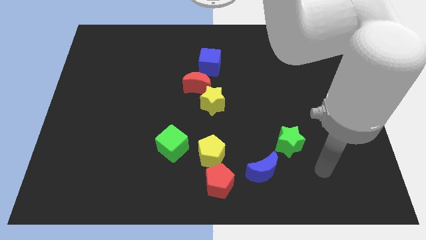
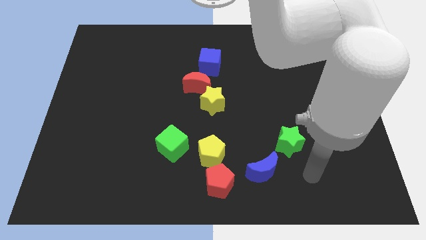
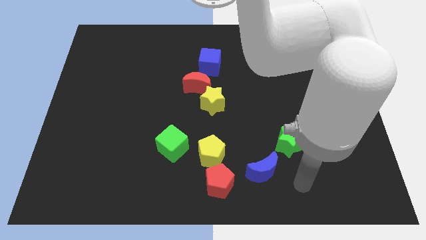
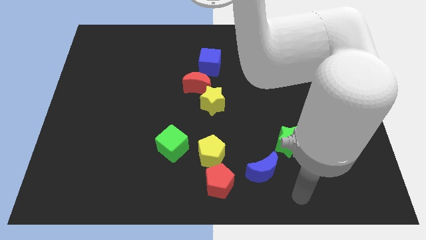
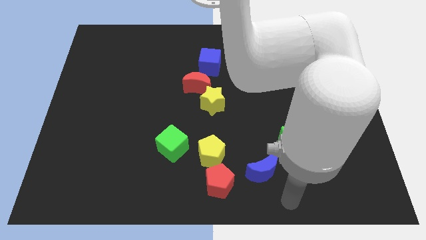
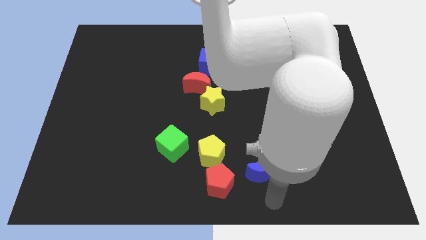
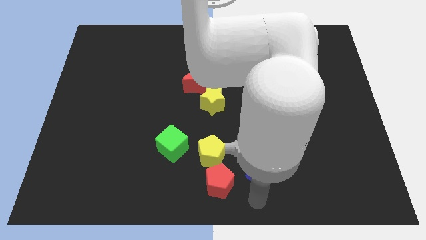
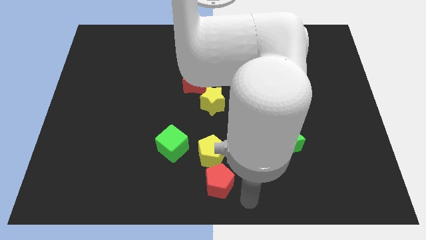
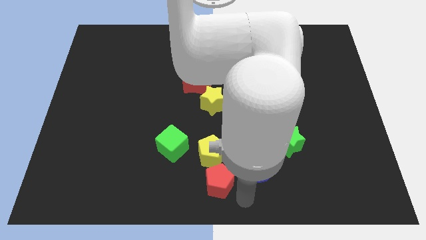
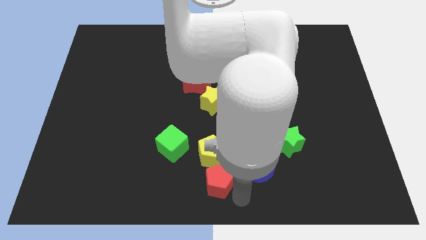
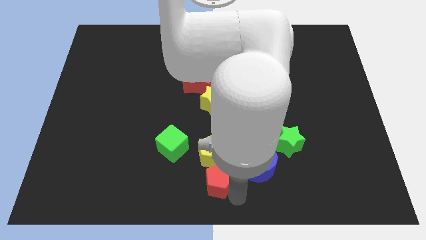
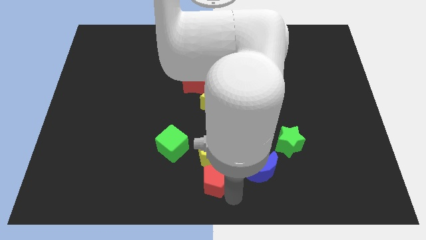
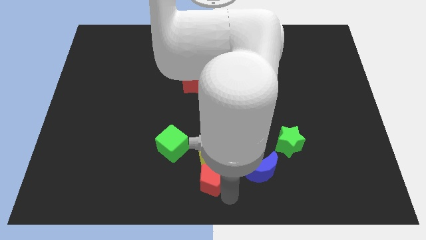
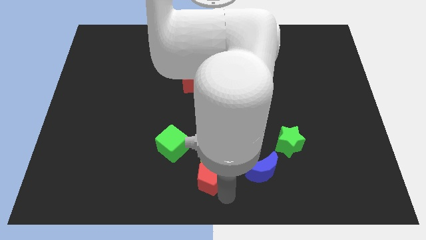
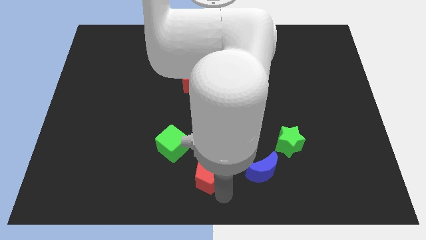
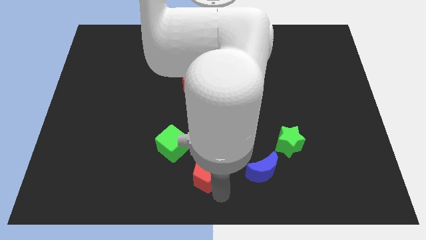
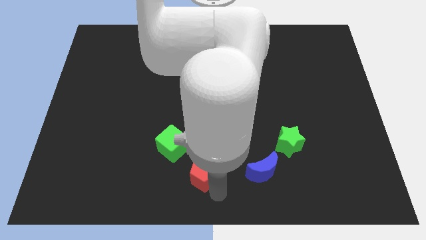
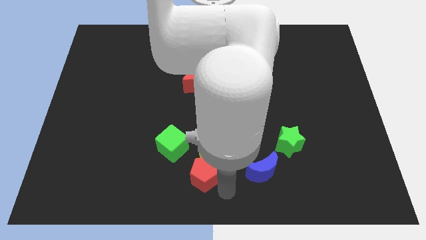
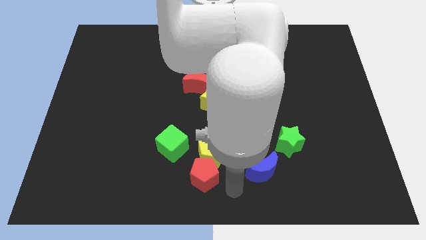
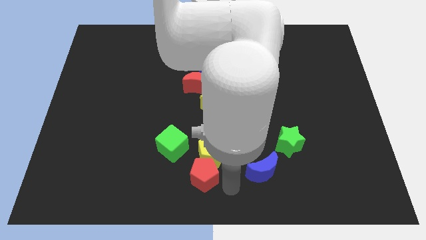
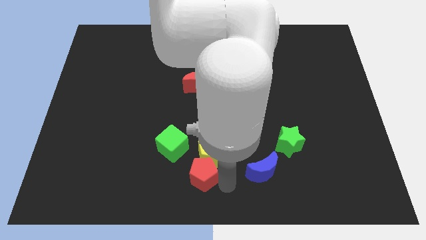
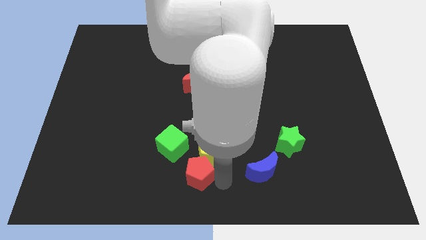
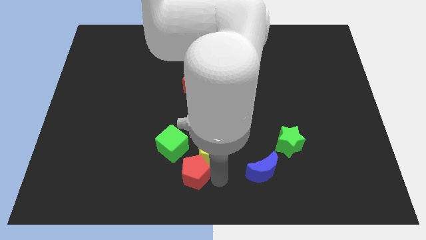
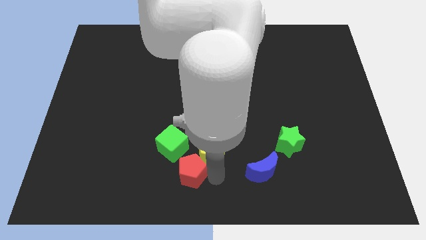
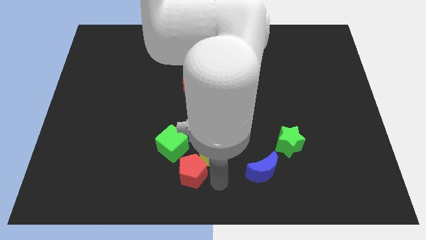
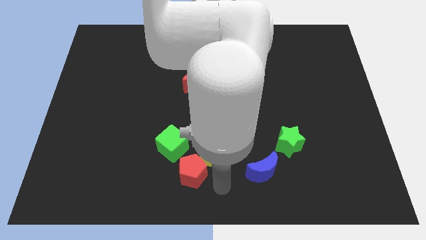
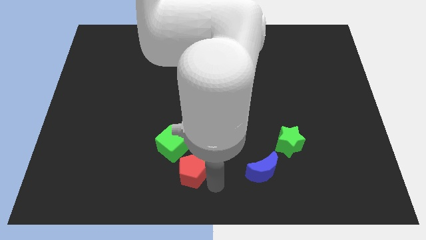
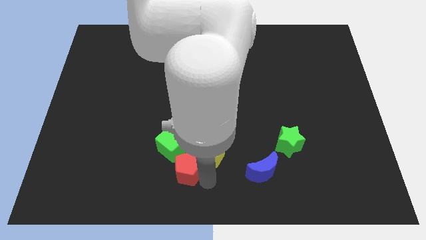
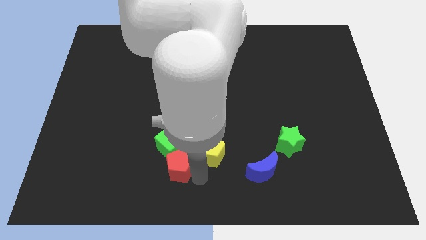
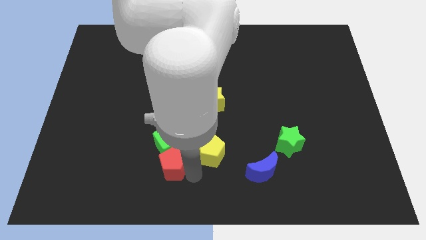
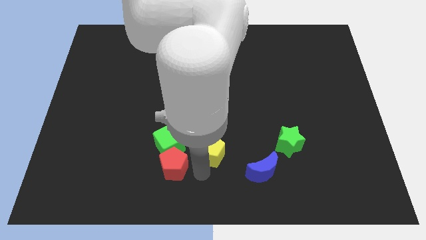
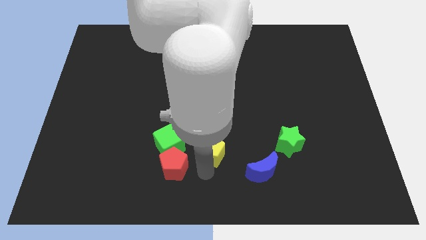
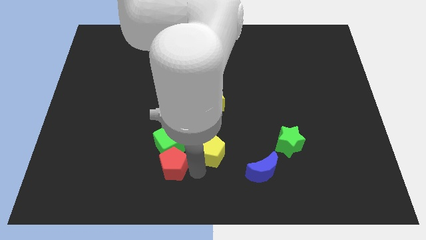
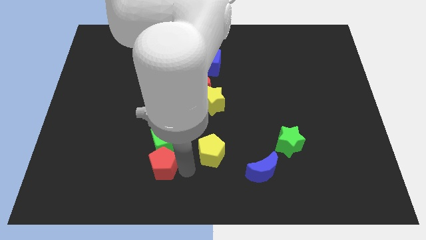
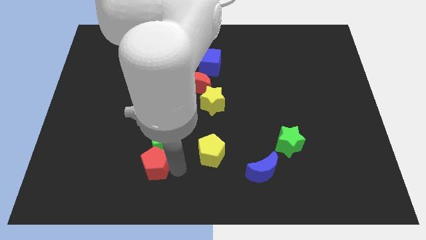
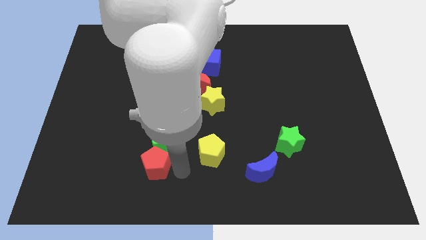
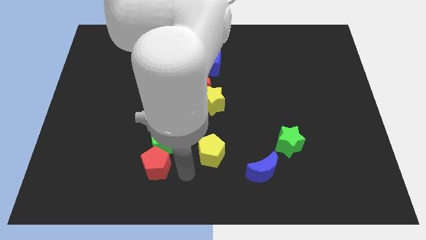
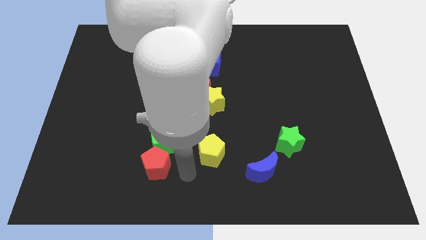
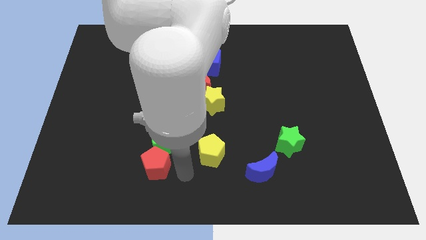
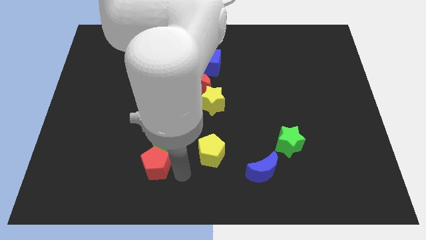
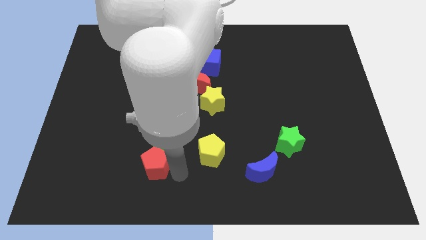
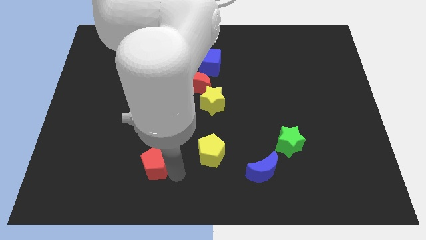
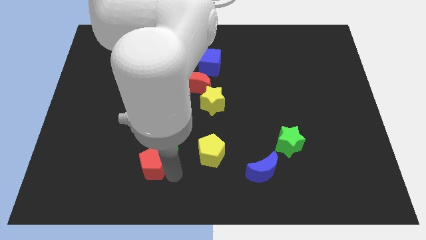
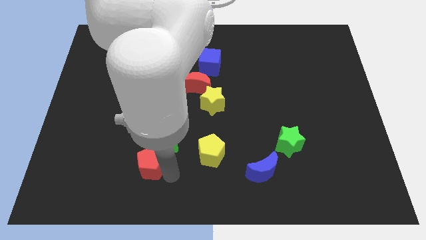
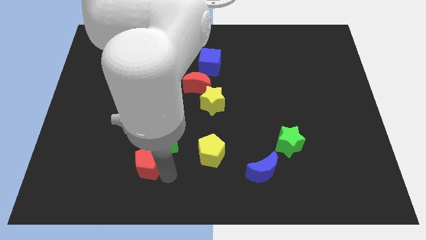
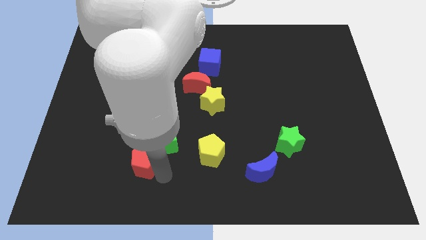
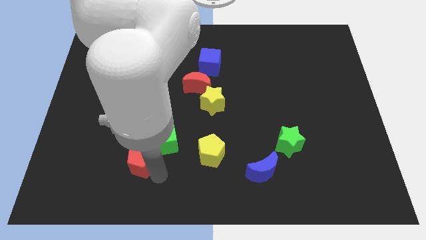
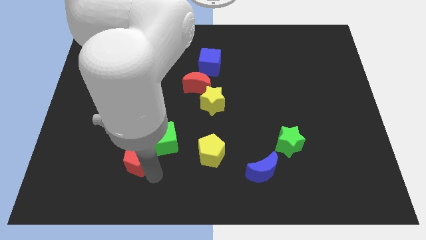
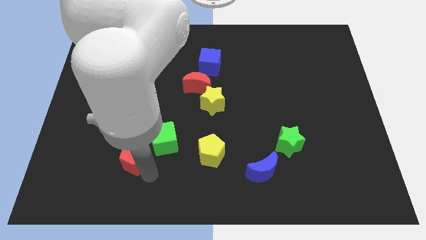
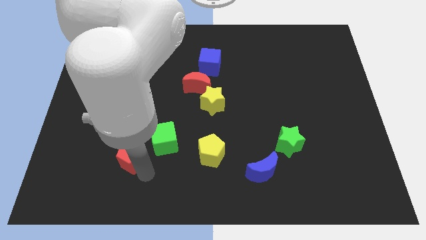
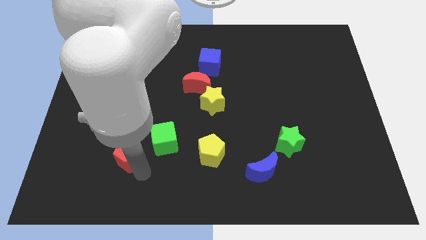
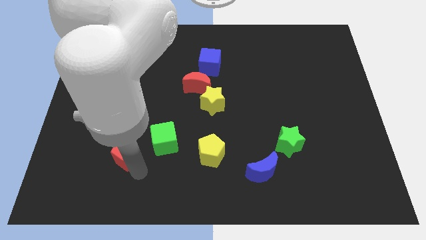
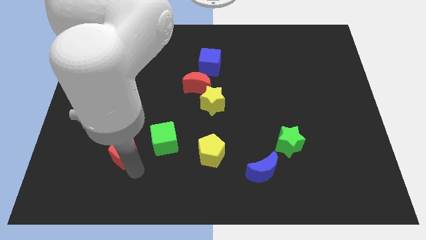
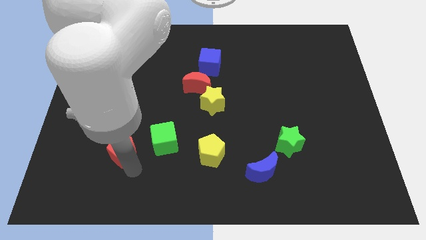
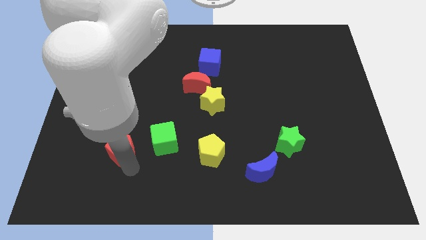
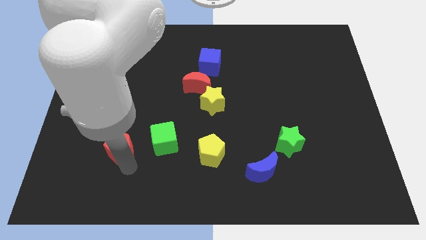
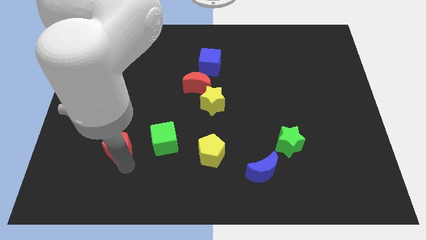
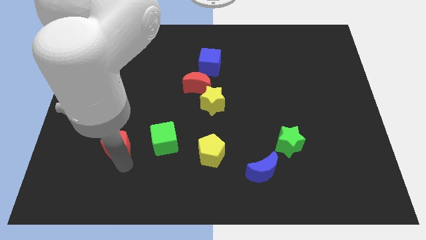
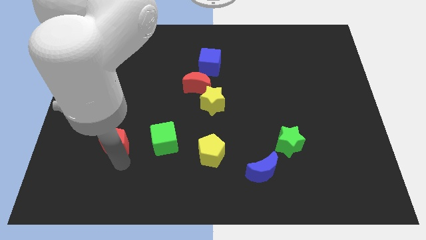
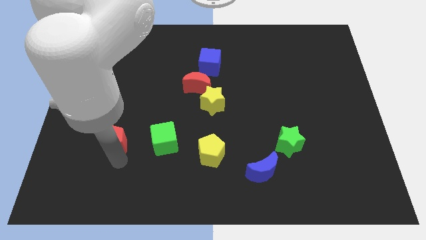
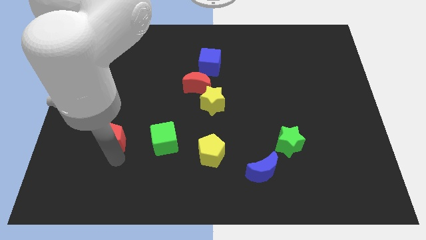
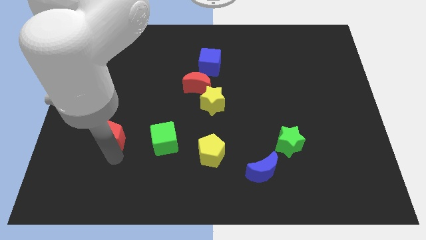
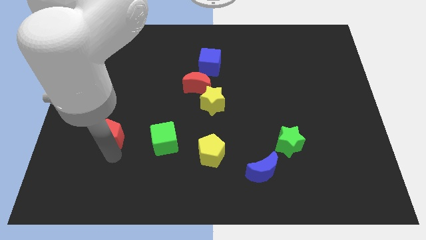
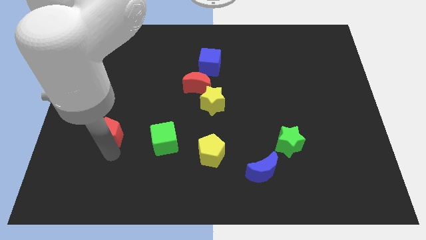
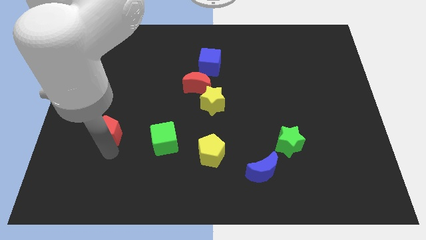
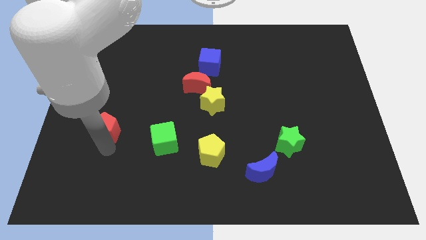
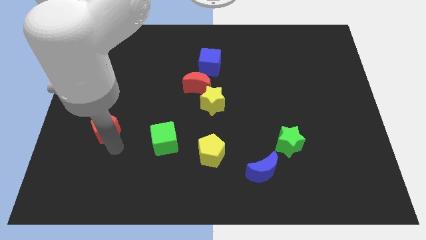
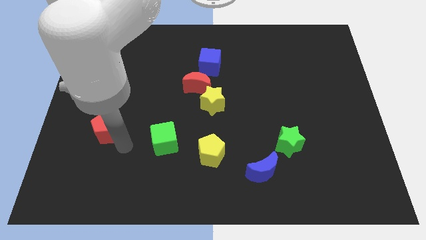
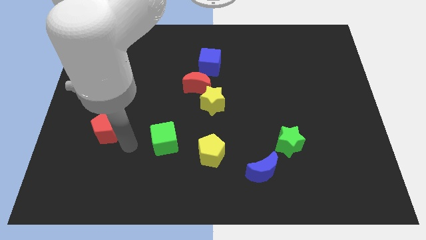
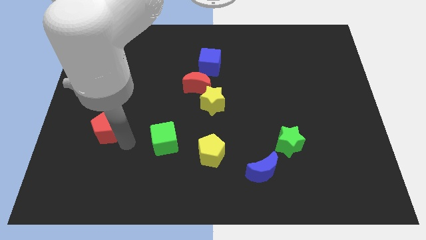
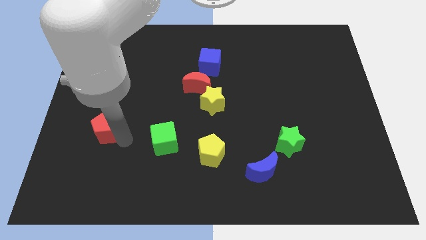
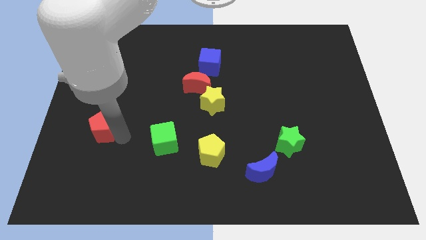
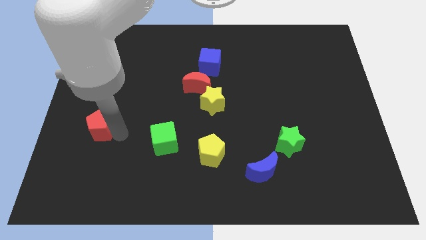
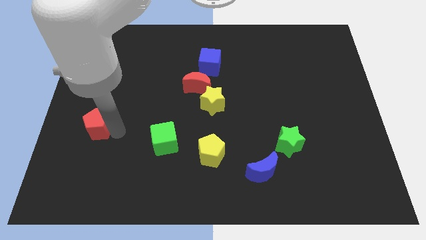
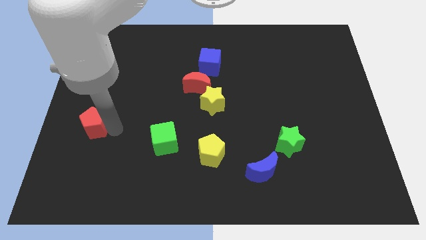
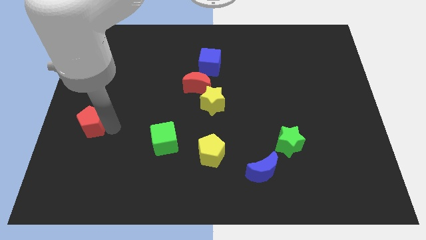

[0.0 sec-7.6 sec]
put the red pentagon to the left side

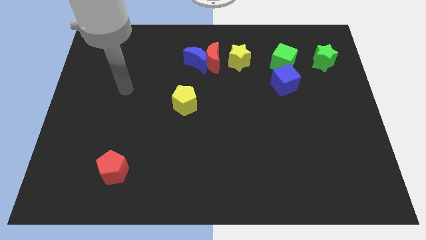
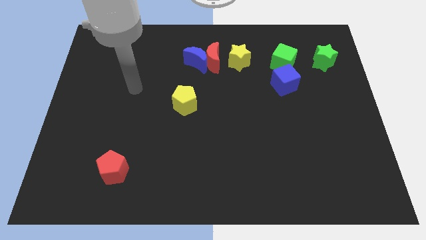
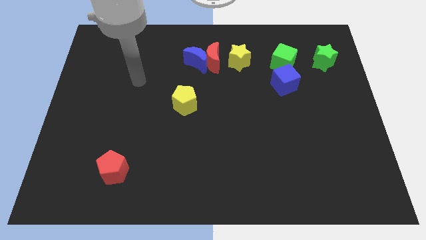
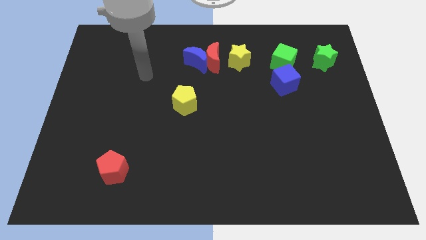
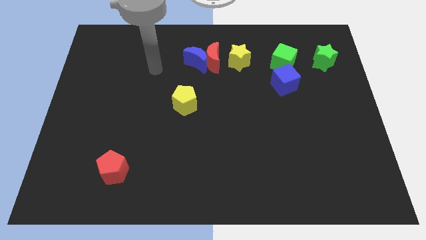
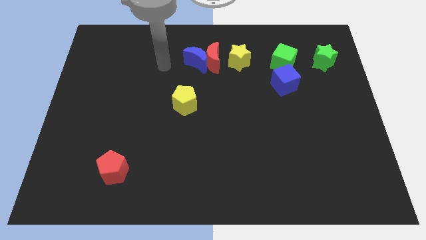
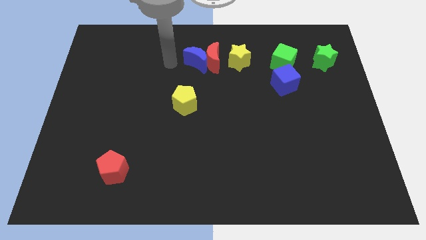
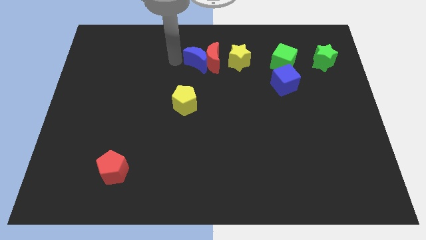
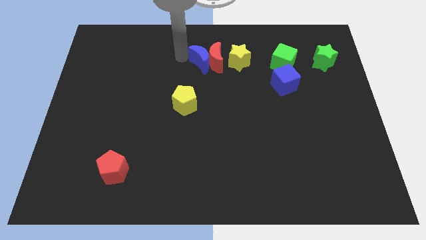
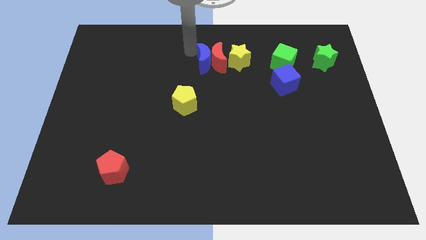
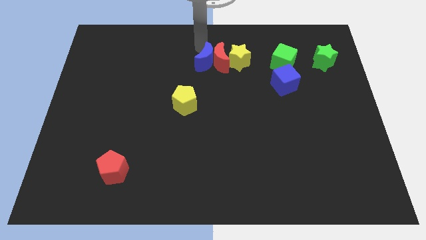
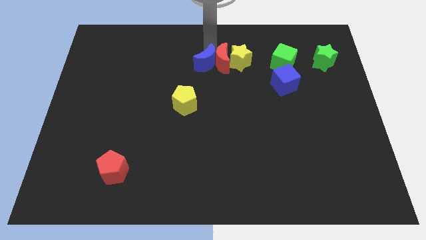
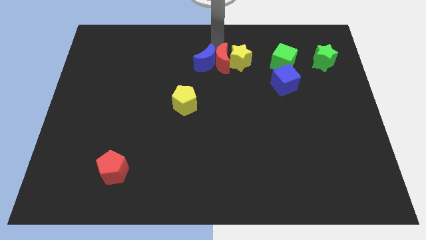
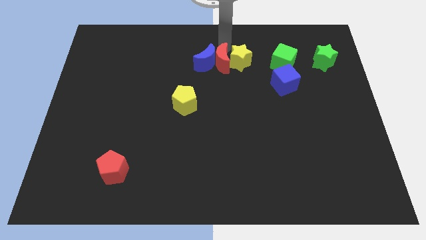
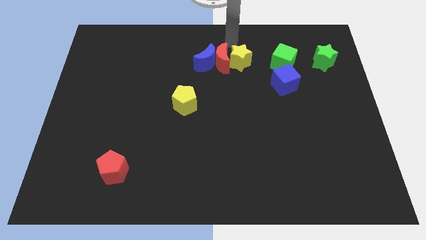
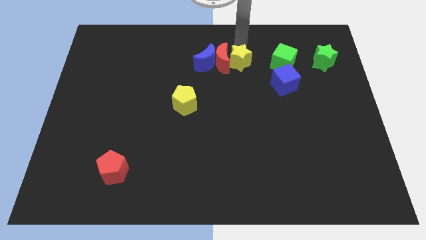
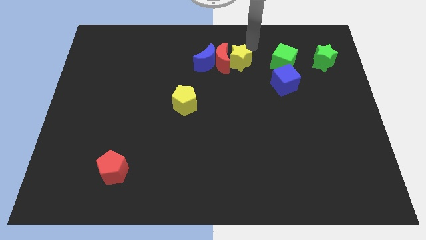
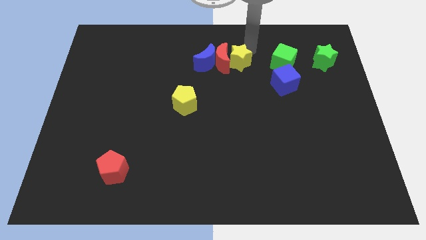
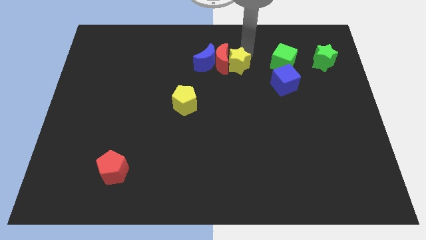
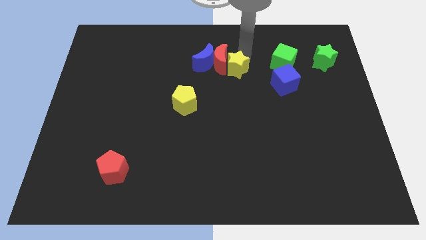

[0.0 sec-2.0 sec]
put the yellow star to the center of the board
